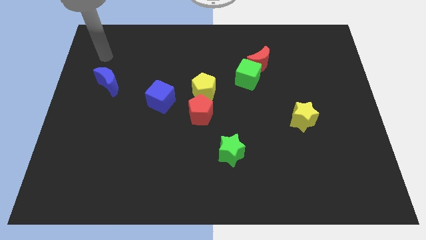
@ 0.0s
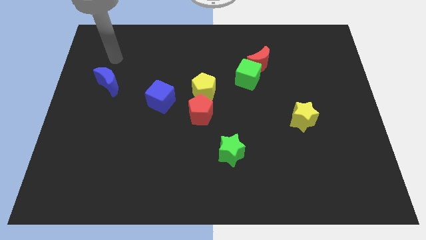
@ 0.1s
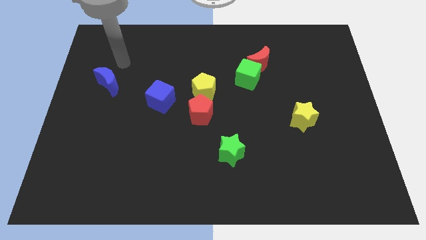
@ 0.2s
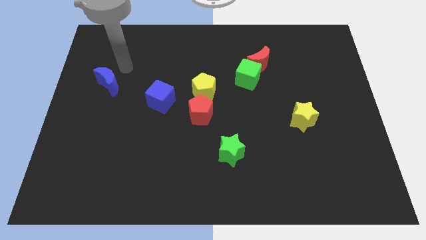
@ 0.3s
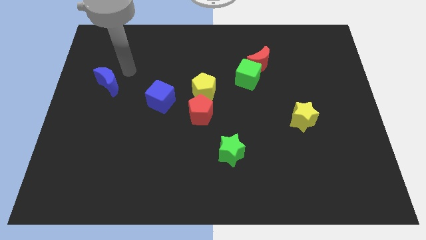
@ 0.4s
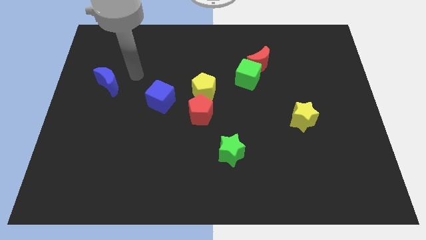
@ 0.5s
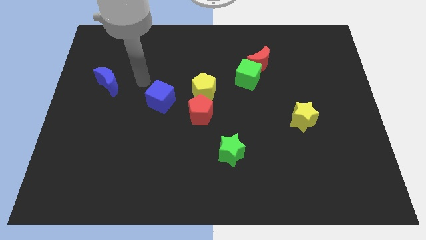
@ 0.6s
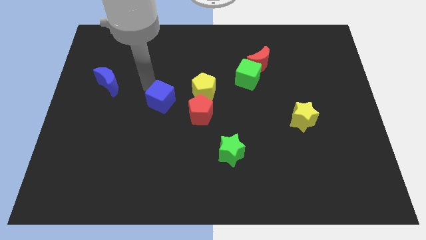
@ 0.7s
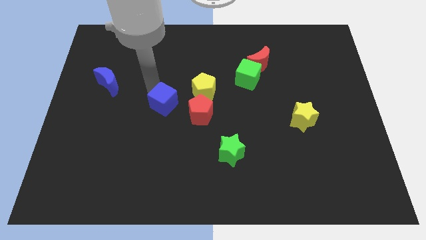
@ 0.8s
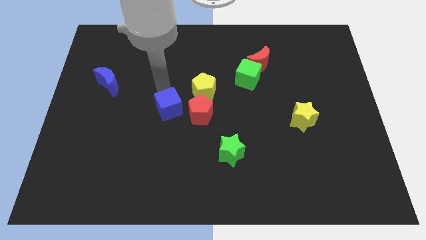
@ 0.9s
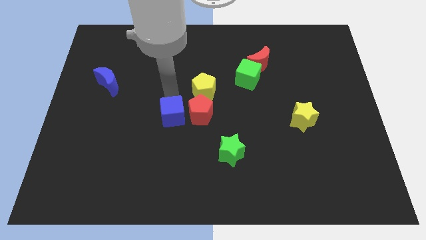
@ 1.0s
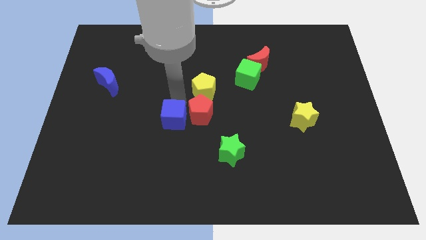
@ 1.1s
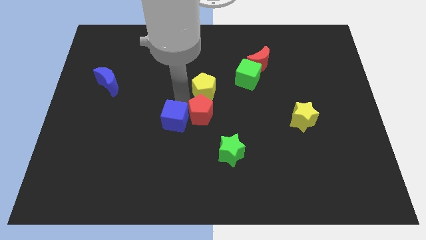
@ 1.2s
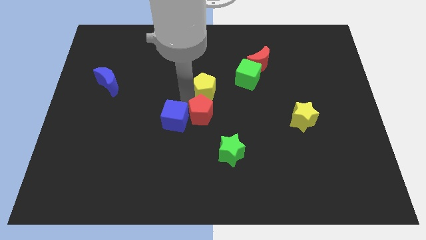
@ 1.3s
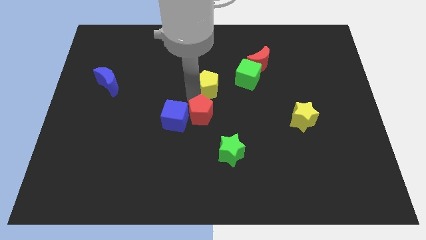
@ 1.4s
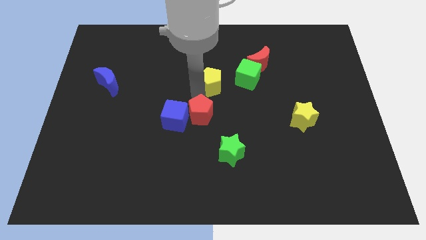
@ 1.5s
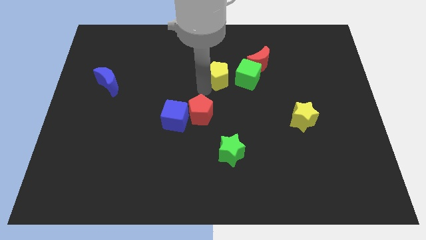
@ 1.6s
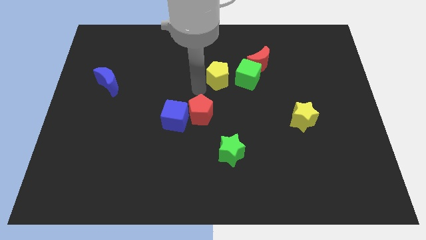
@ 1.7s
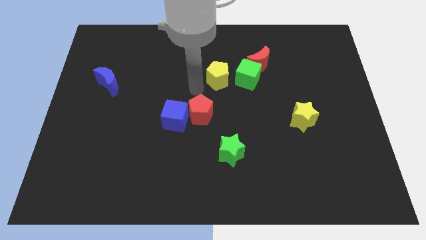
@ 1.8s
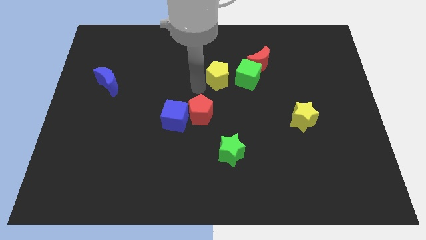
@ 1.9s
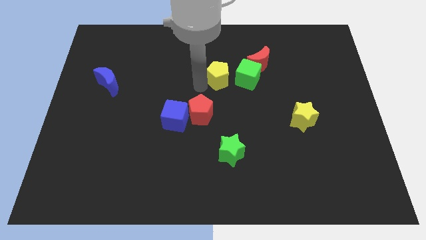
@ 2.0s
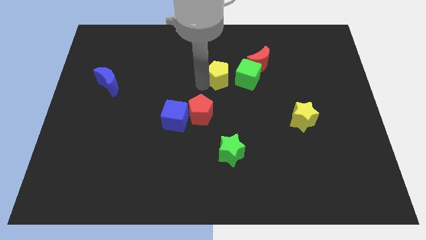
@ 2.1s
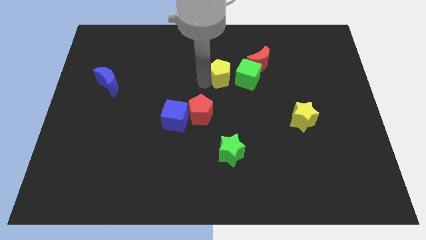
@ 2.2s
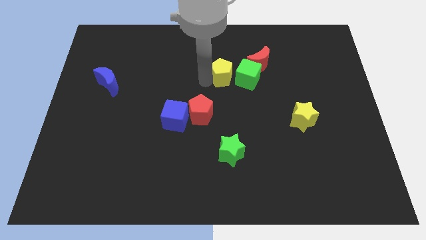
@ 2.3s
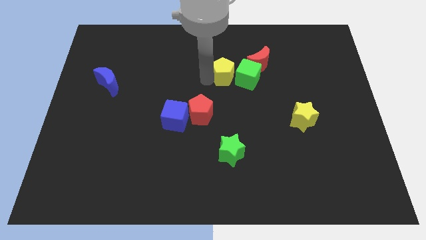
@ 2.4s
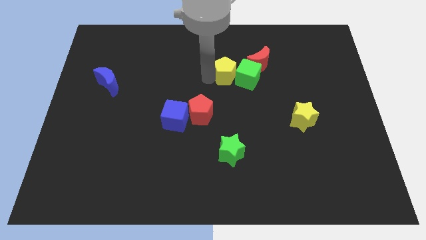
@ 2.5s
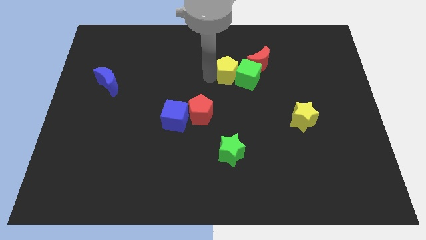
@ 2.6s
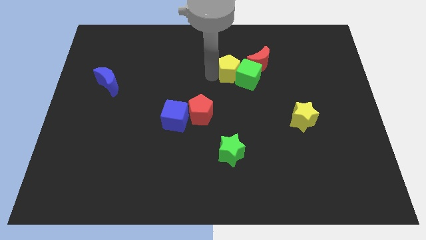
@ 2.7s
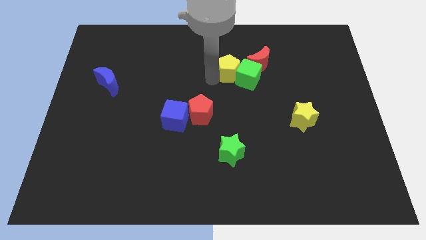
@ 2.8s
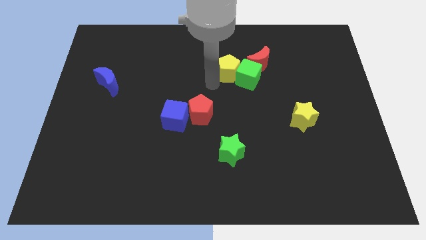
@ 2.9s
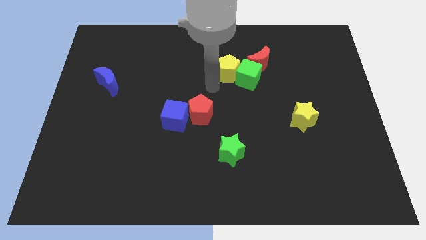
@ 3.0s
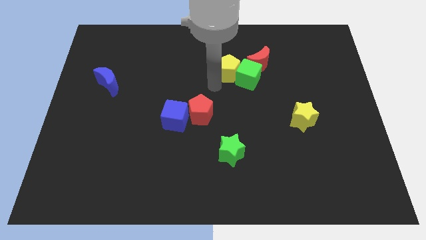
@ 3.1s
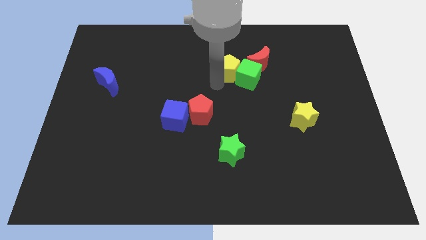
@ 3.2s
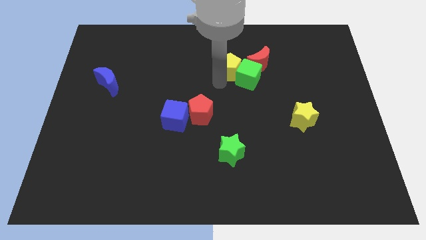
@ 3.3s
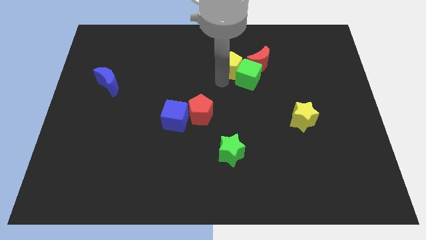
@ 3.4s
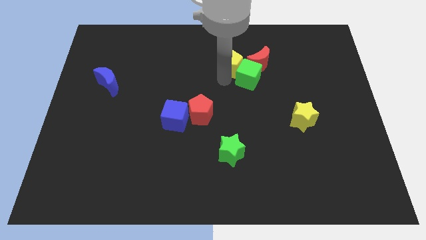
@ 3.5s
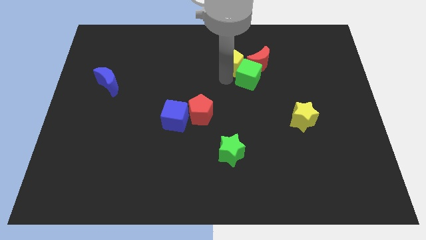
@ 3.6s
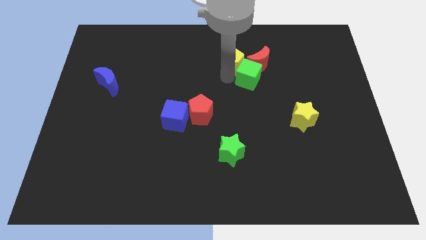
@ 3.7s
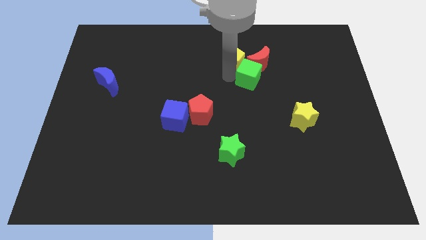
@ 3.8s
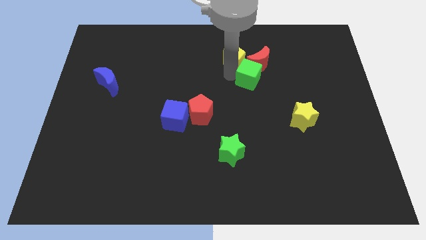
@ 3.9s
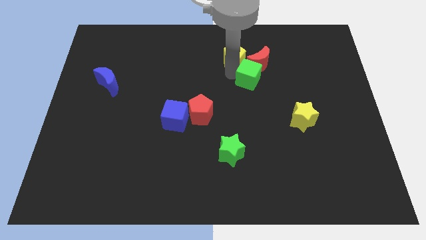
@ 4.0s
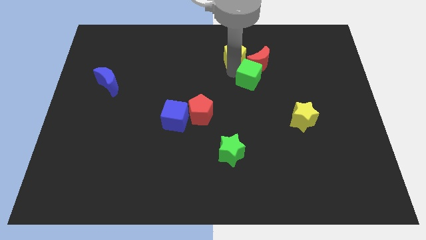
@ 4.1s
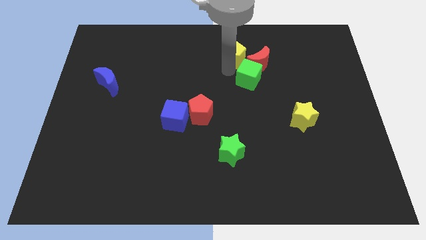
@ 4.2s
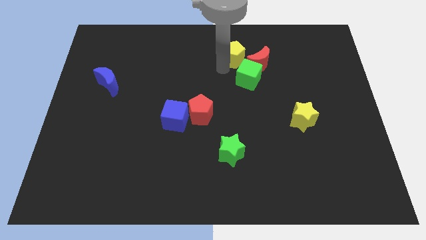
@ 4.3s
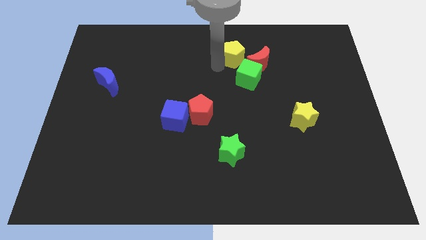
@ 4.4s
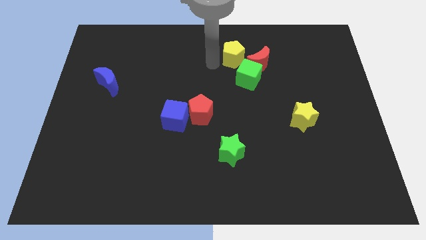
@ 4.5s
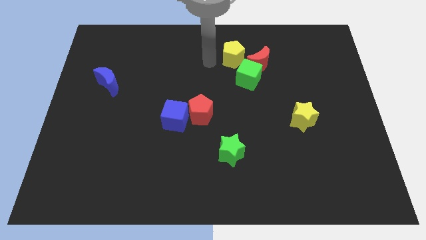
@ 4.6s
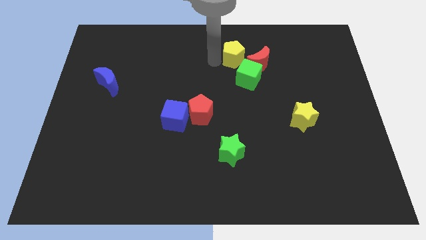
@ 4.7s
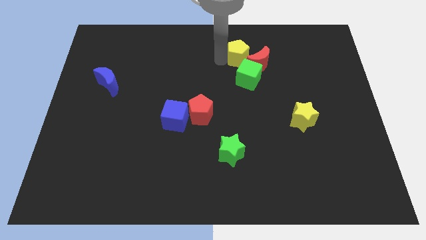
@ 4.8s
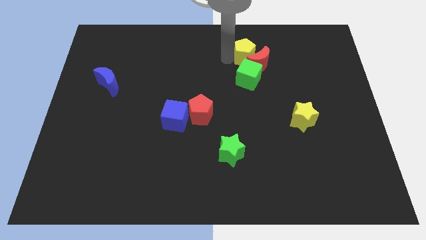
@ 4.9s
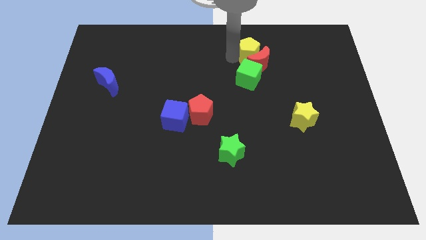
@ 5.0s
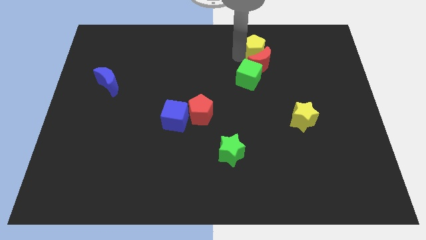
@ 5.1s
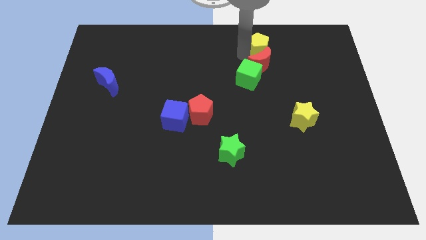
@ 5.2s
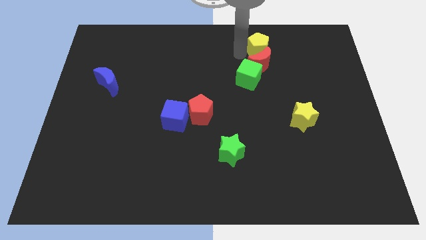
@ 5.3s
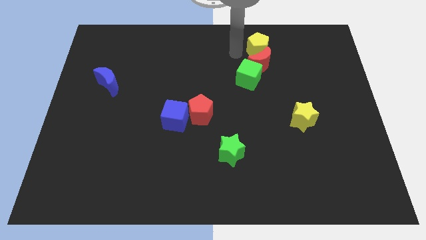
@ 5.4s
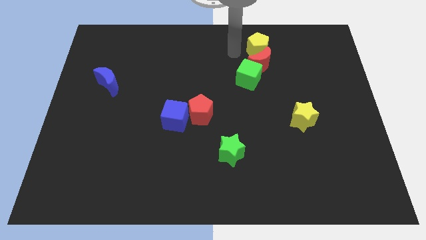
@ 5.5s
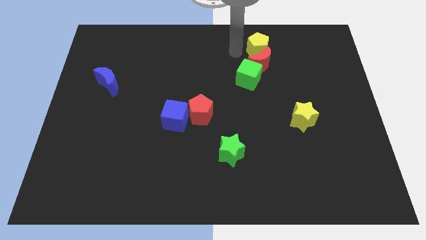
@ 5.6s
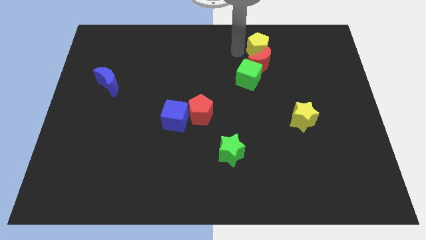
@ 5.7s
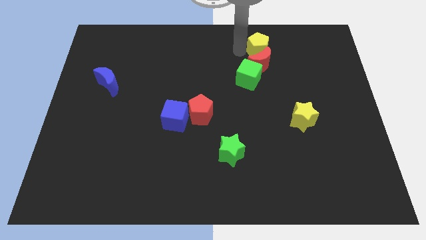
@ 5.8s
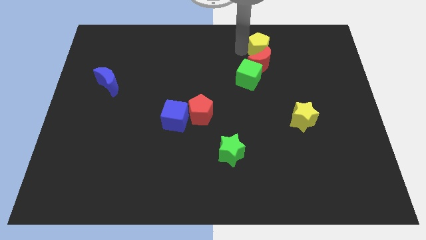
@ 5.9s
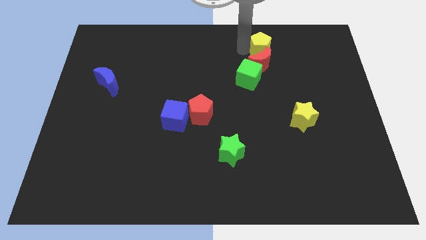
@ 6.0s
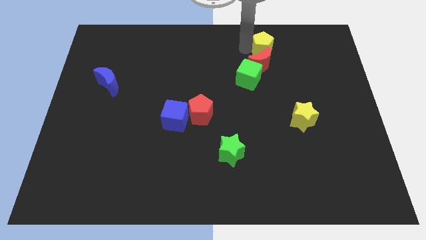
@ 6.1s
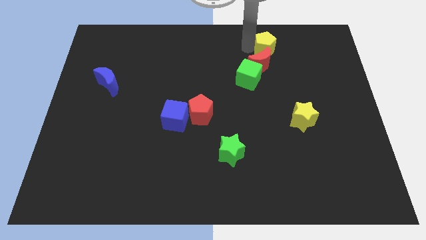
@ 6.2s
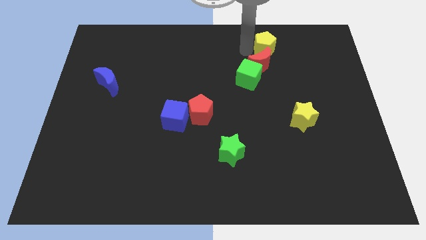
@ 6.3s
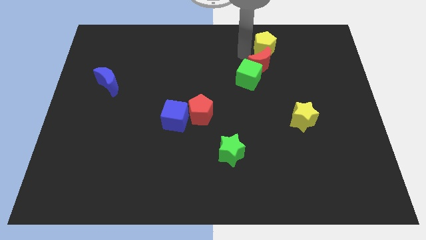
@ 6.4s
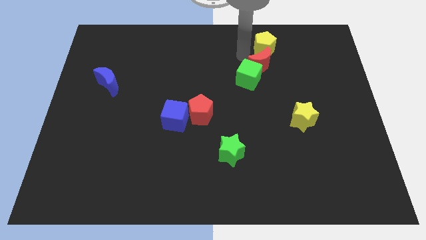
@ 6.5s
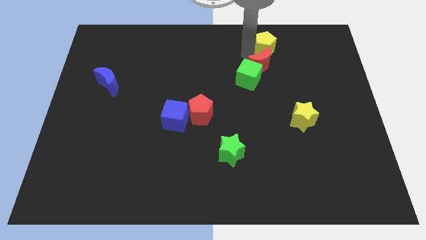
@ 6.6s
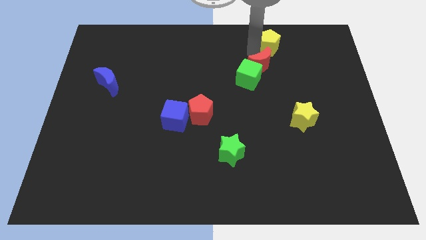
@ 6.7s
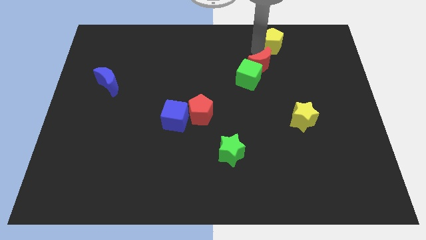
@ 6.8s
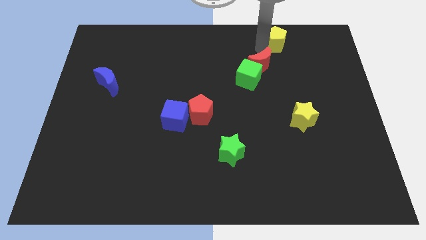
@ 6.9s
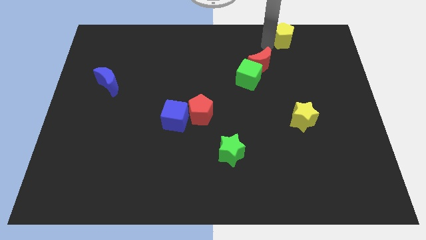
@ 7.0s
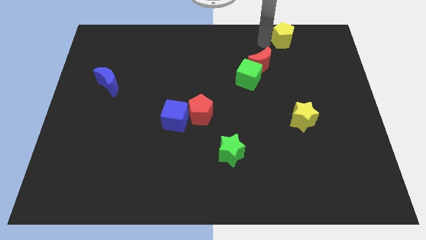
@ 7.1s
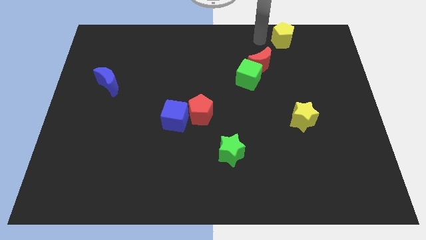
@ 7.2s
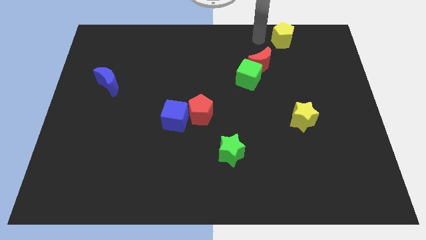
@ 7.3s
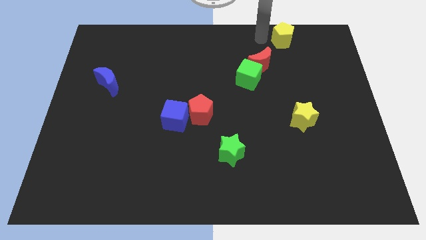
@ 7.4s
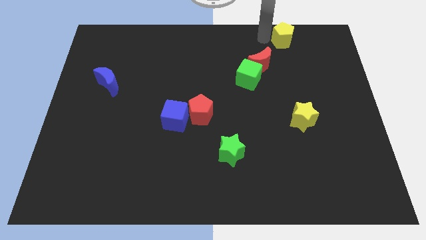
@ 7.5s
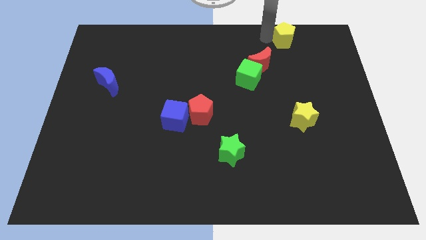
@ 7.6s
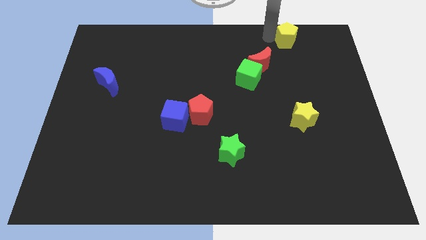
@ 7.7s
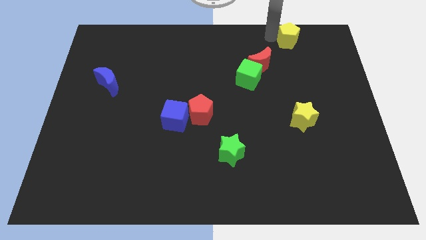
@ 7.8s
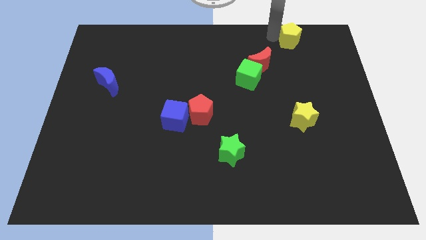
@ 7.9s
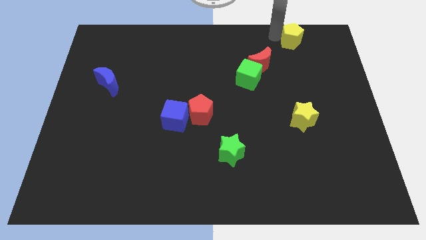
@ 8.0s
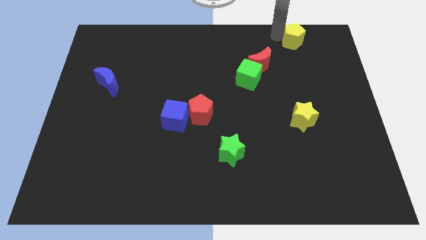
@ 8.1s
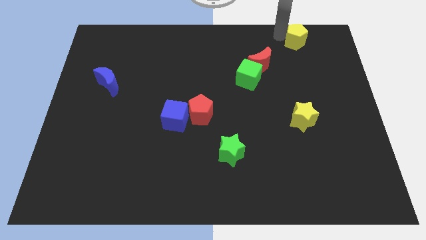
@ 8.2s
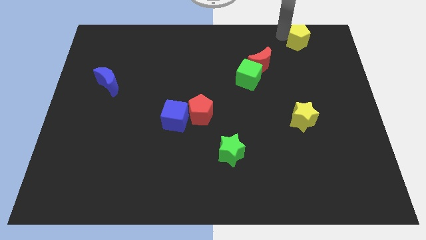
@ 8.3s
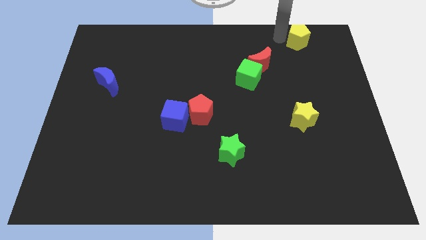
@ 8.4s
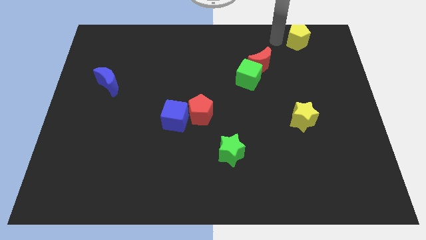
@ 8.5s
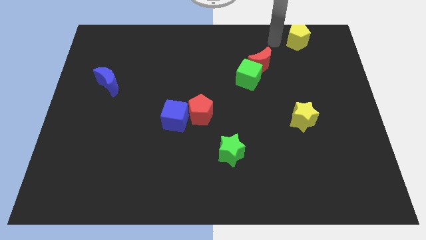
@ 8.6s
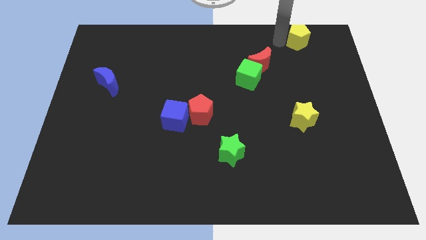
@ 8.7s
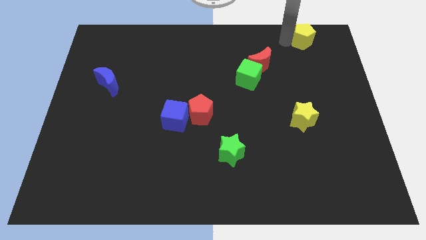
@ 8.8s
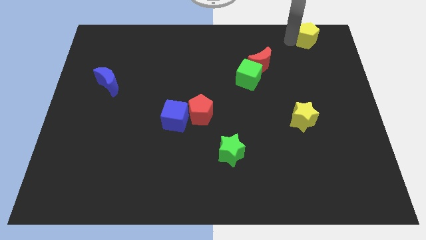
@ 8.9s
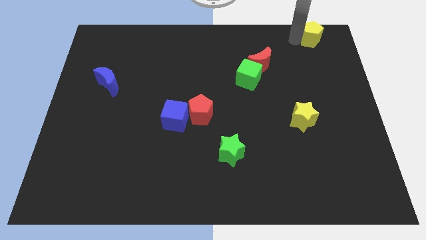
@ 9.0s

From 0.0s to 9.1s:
move the yellow pentagon to the top right of the board
